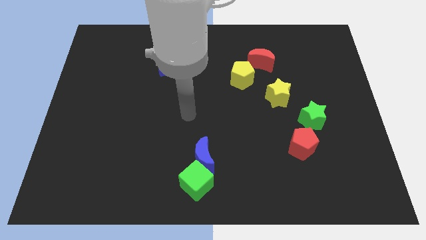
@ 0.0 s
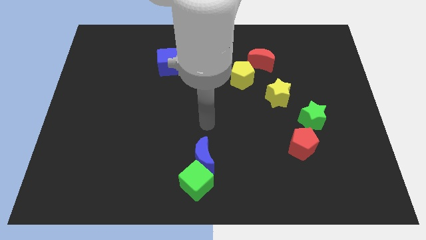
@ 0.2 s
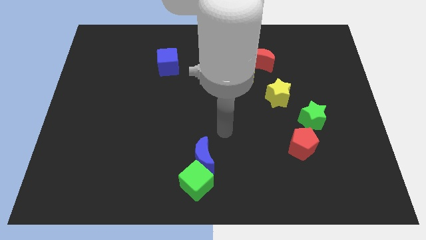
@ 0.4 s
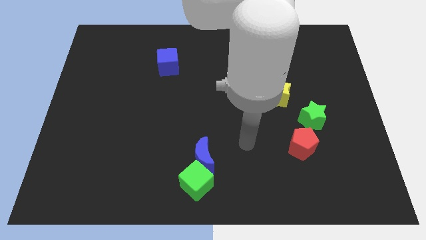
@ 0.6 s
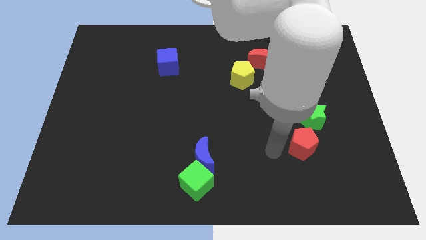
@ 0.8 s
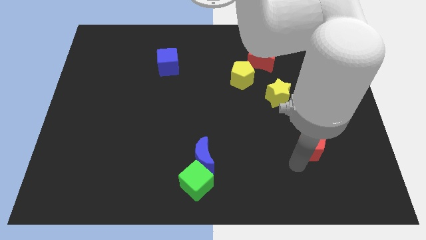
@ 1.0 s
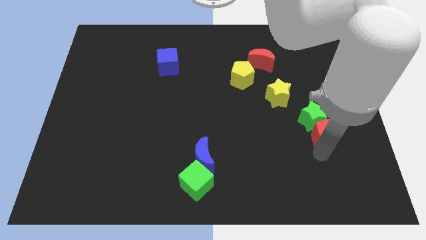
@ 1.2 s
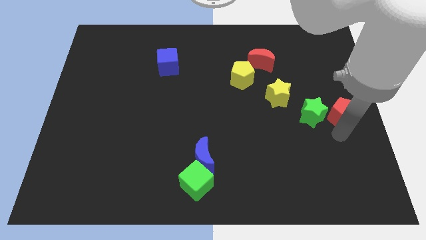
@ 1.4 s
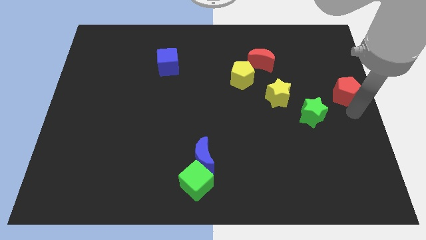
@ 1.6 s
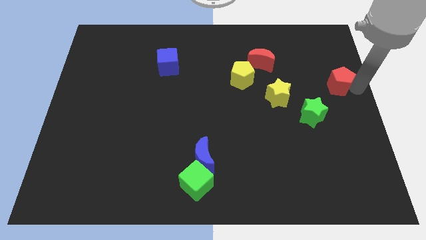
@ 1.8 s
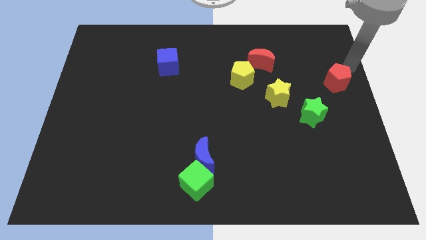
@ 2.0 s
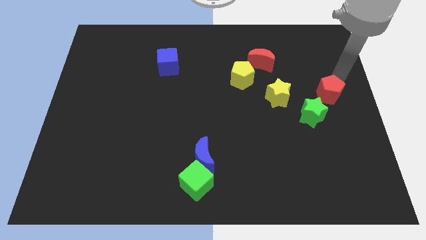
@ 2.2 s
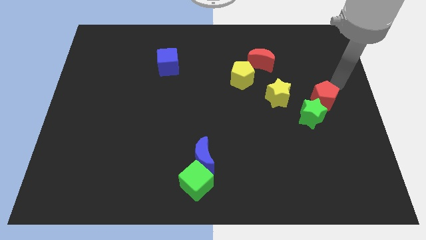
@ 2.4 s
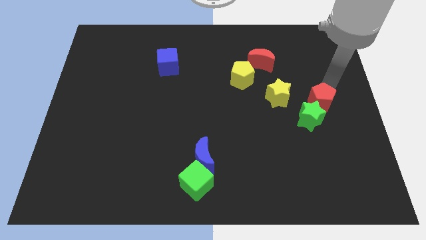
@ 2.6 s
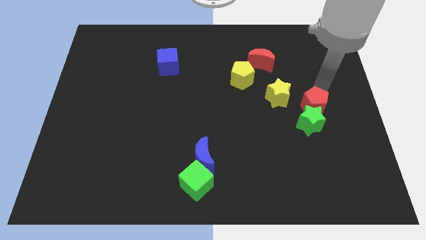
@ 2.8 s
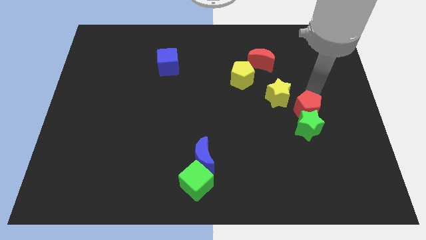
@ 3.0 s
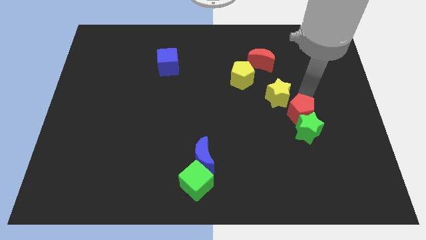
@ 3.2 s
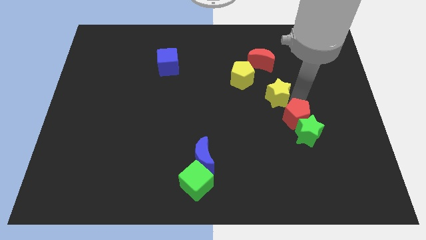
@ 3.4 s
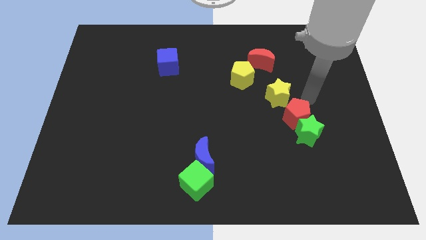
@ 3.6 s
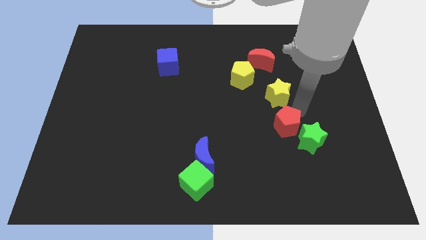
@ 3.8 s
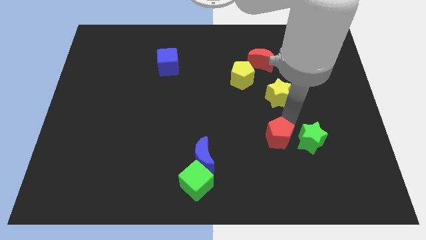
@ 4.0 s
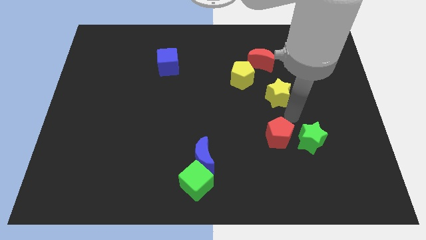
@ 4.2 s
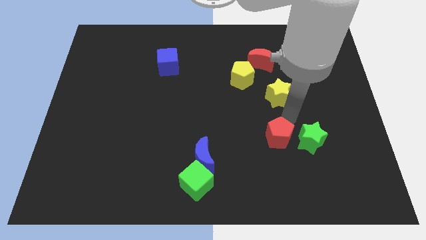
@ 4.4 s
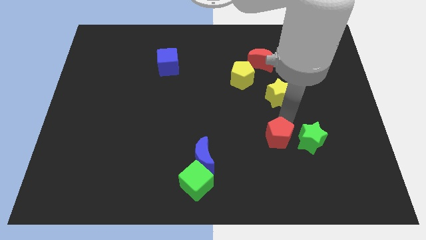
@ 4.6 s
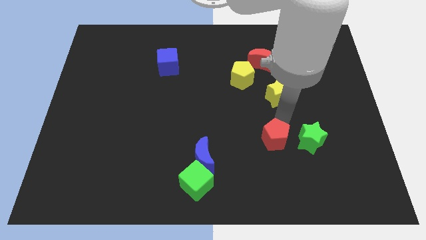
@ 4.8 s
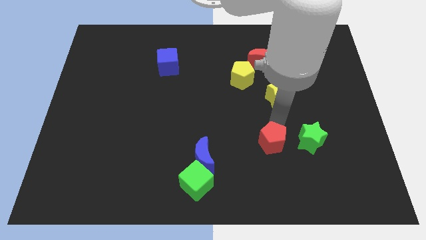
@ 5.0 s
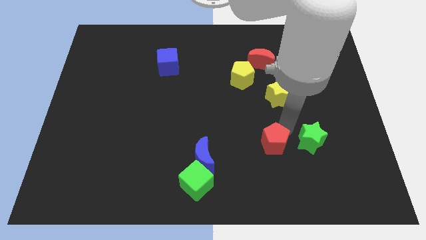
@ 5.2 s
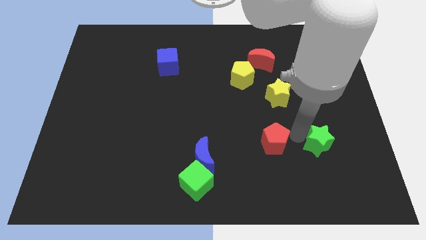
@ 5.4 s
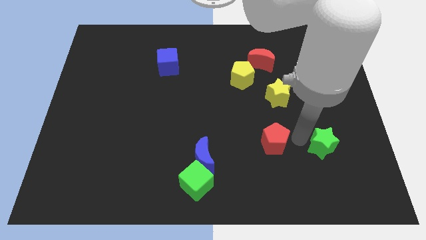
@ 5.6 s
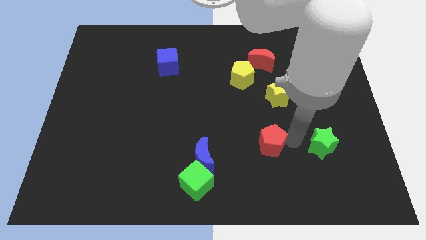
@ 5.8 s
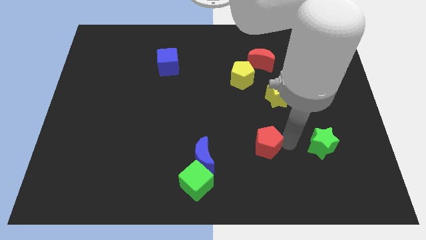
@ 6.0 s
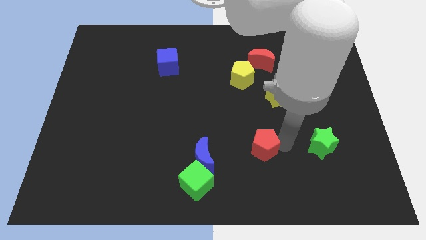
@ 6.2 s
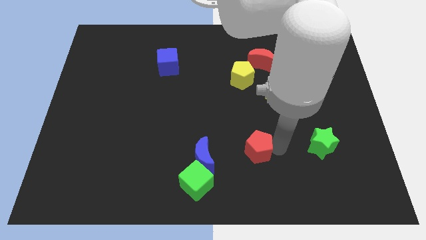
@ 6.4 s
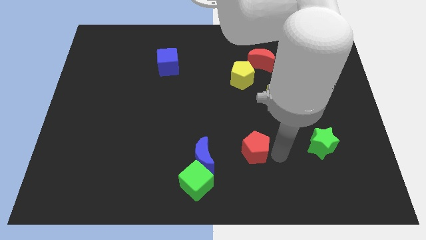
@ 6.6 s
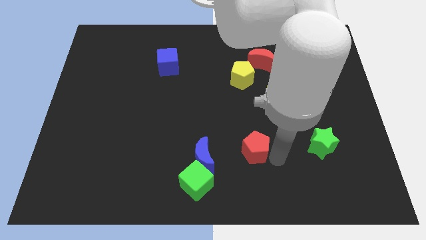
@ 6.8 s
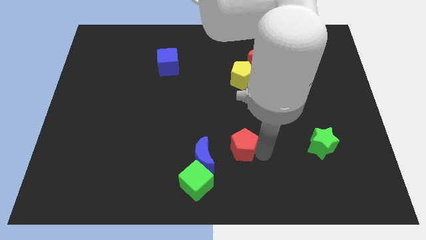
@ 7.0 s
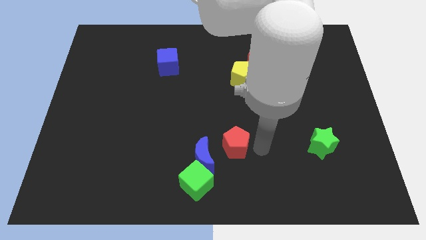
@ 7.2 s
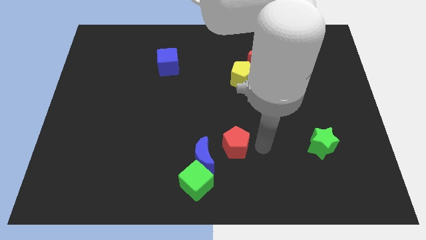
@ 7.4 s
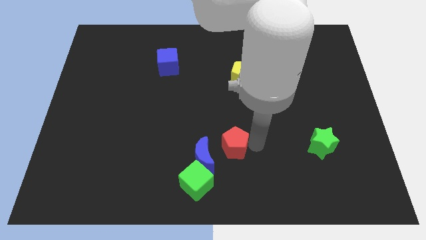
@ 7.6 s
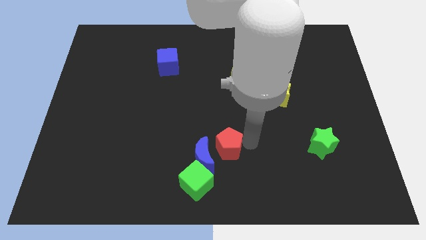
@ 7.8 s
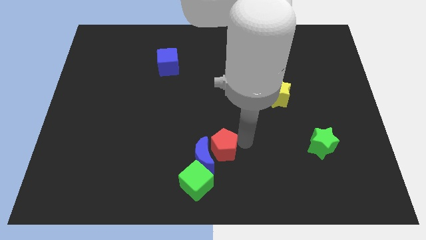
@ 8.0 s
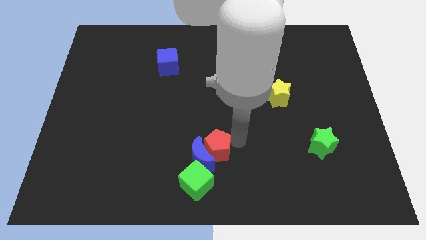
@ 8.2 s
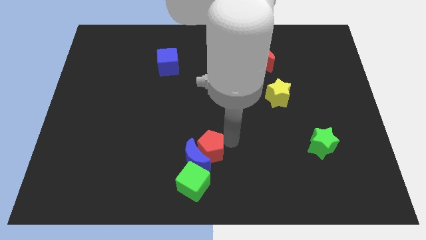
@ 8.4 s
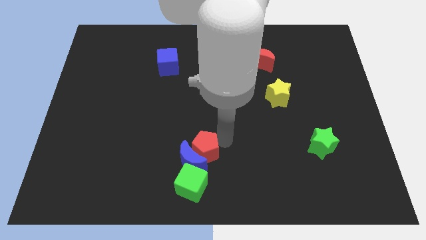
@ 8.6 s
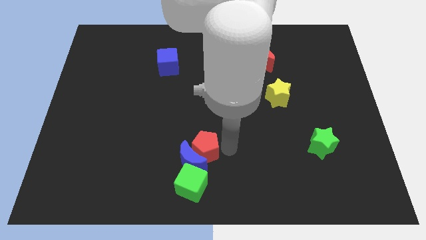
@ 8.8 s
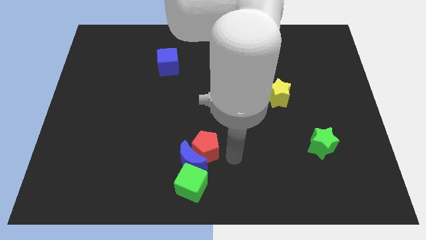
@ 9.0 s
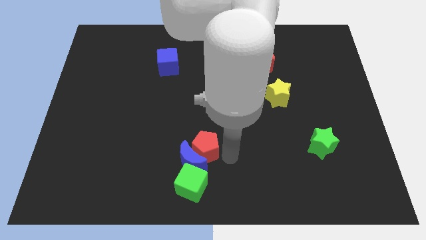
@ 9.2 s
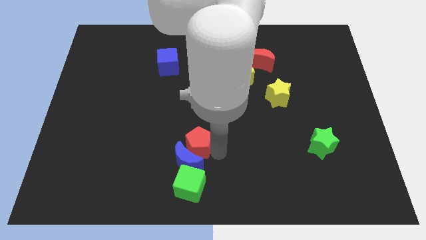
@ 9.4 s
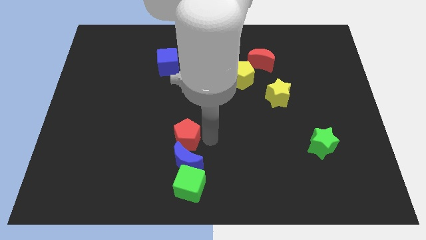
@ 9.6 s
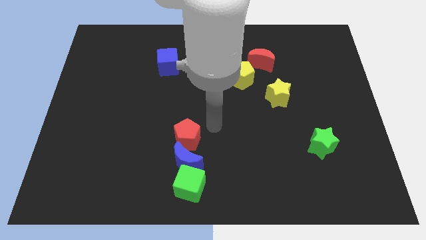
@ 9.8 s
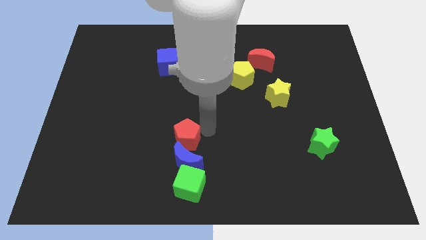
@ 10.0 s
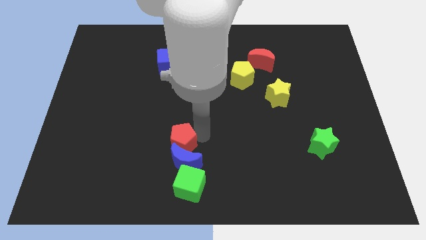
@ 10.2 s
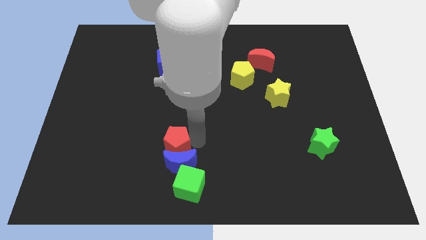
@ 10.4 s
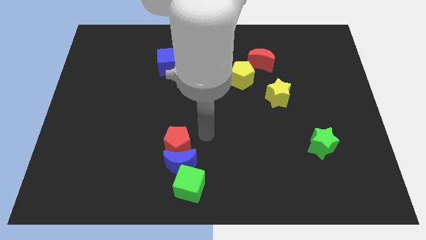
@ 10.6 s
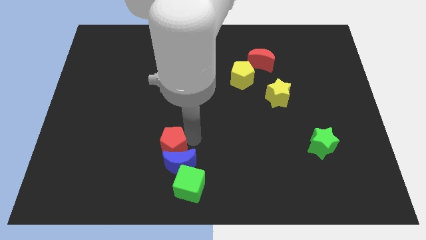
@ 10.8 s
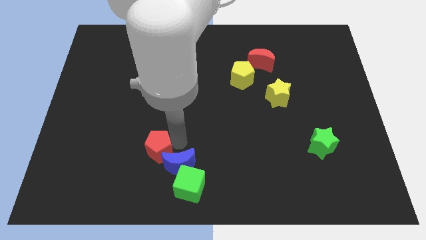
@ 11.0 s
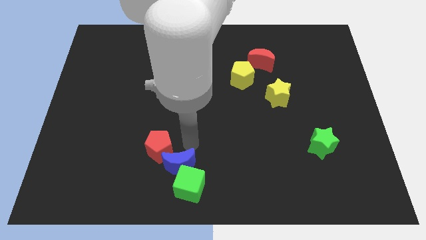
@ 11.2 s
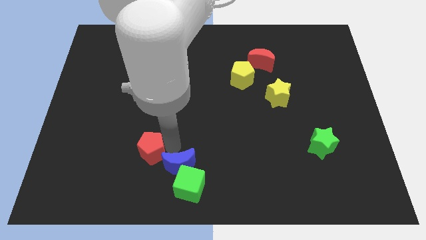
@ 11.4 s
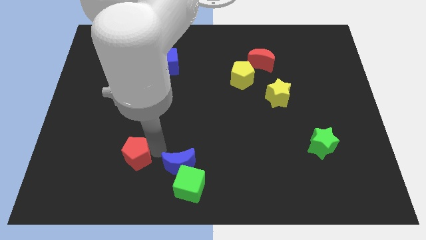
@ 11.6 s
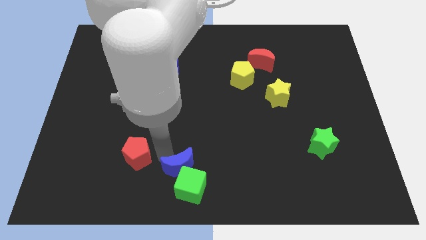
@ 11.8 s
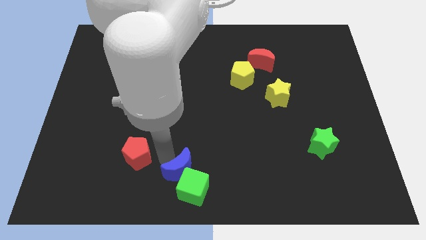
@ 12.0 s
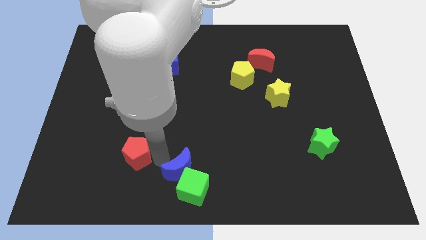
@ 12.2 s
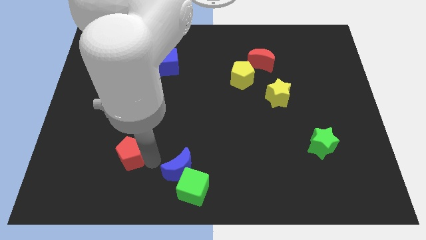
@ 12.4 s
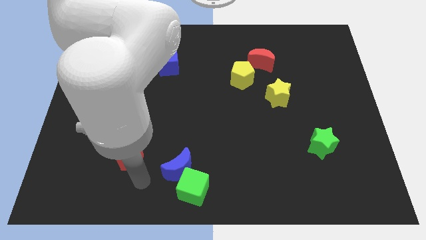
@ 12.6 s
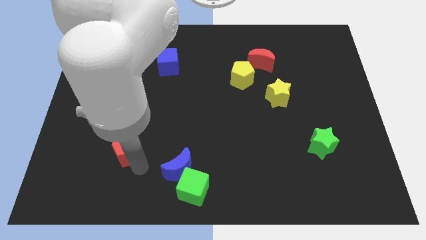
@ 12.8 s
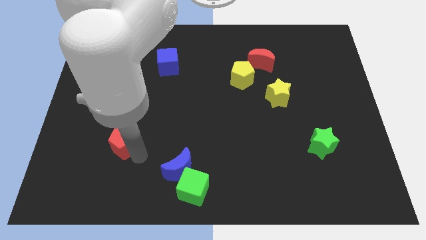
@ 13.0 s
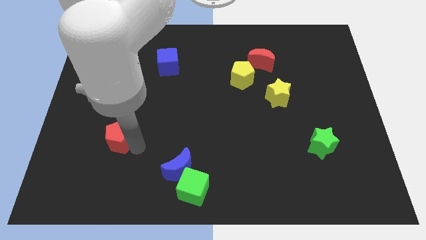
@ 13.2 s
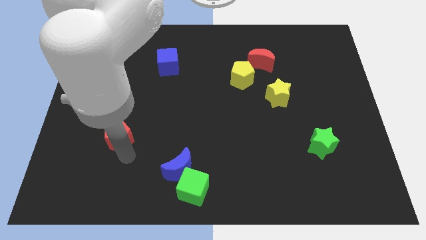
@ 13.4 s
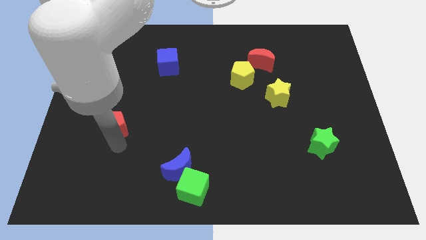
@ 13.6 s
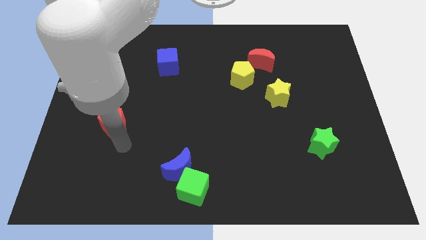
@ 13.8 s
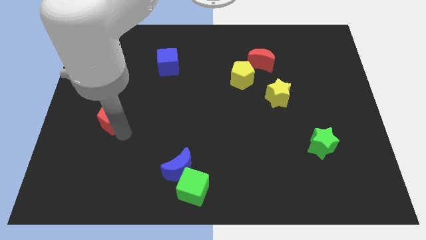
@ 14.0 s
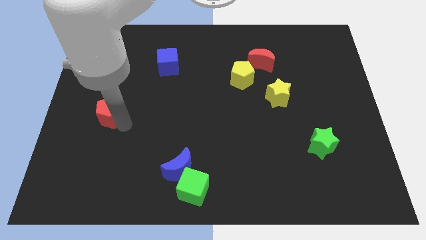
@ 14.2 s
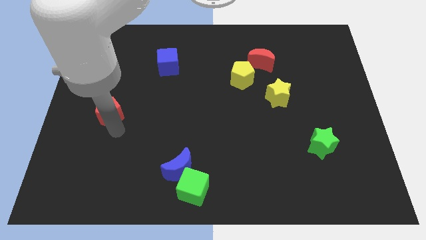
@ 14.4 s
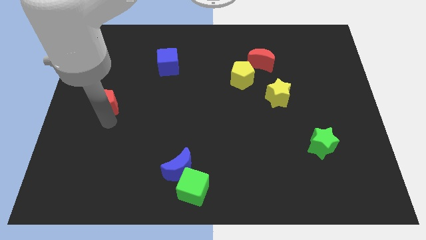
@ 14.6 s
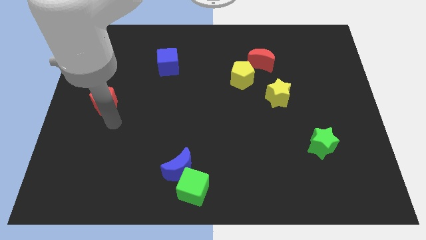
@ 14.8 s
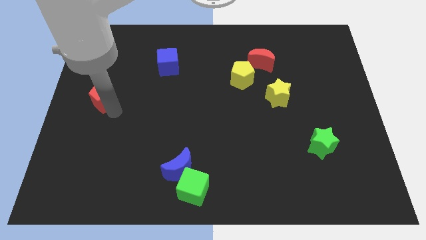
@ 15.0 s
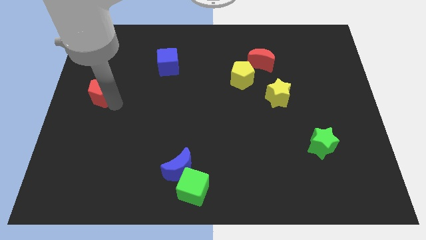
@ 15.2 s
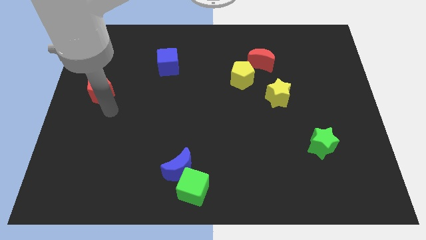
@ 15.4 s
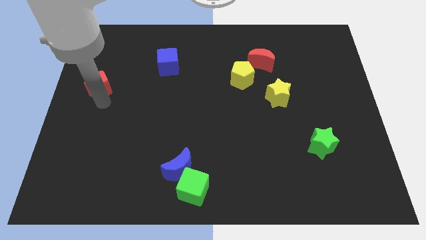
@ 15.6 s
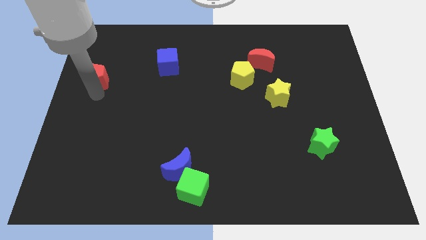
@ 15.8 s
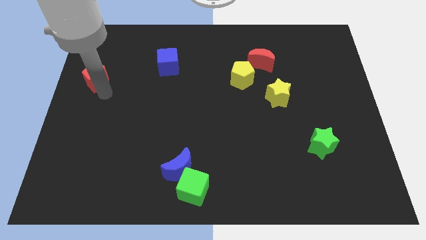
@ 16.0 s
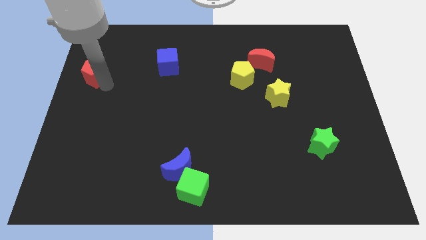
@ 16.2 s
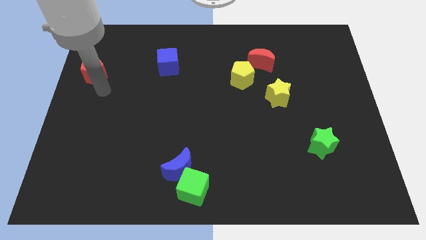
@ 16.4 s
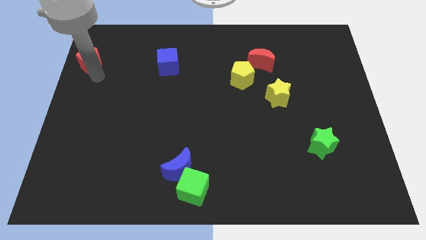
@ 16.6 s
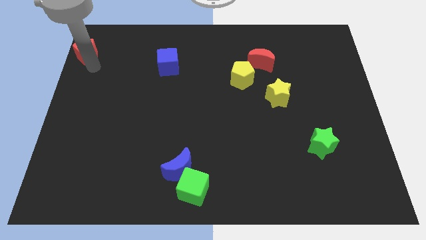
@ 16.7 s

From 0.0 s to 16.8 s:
slide the red pentagon to the top left of the board
